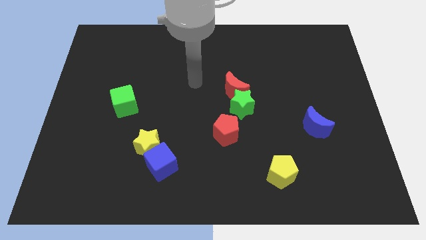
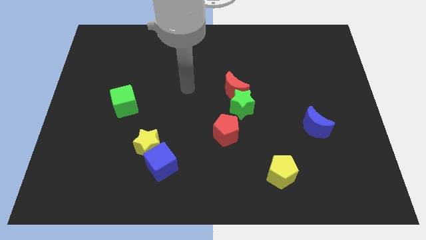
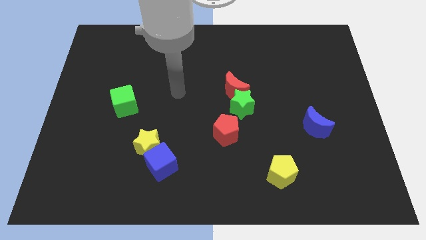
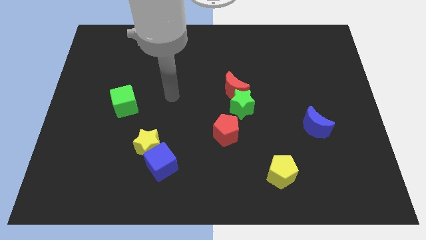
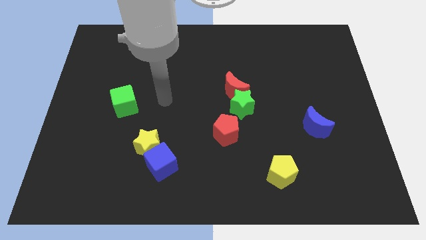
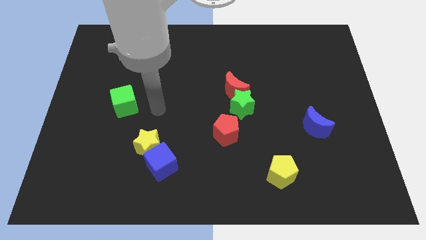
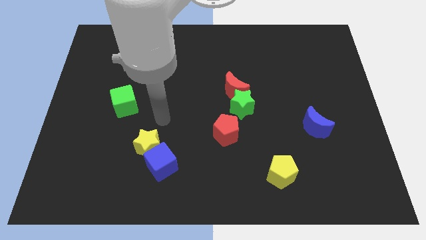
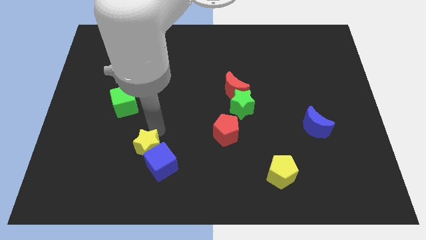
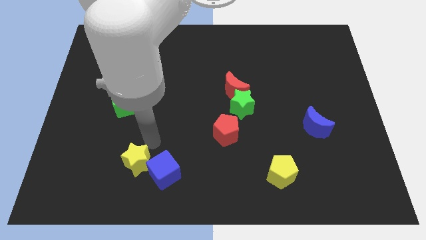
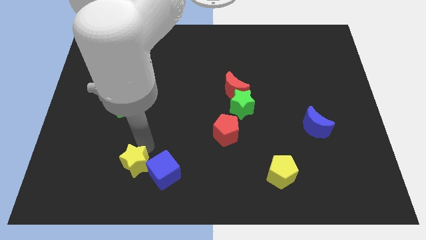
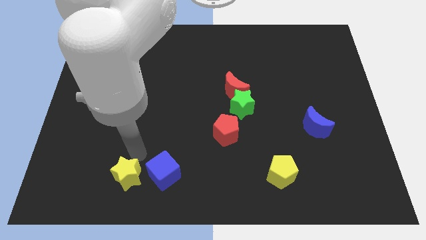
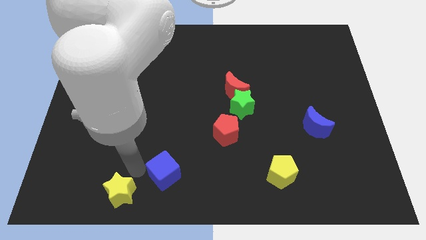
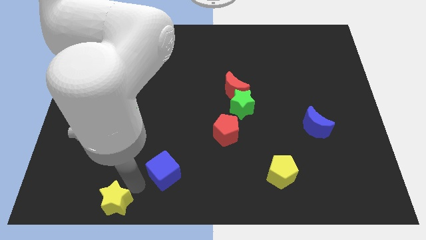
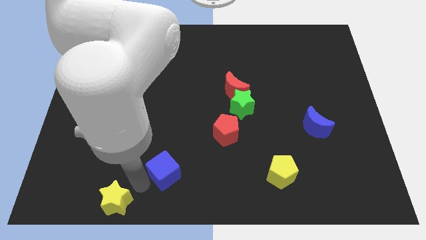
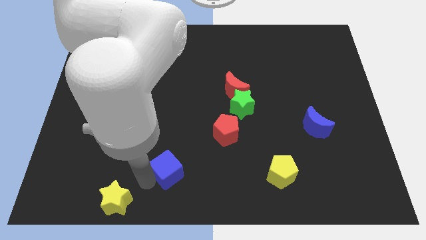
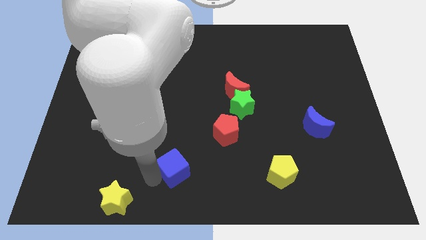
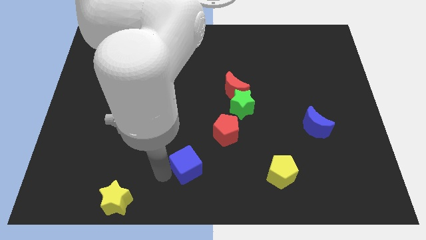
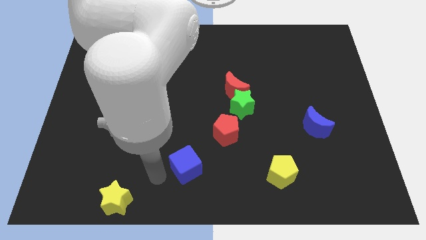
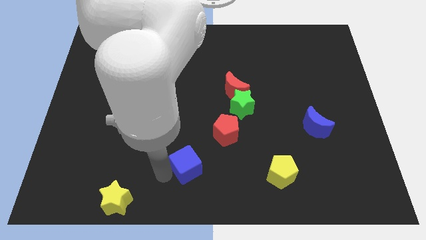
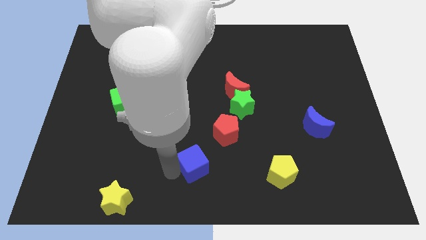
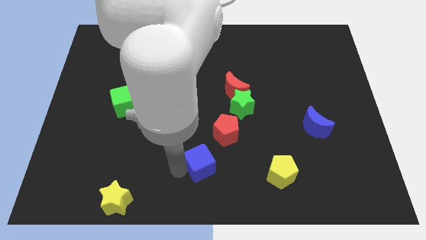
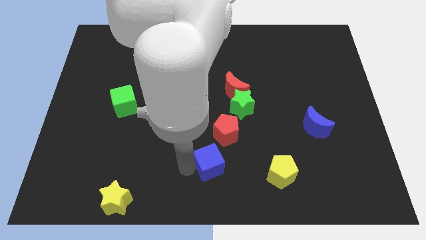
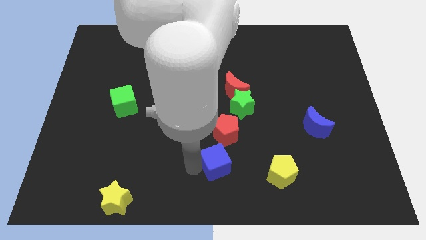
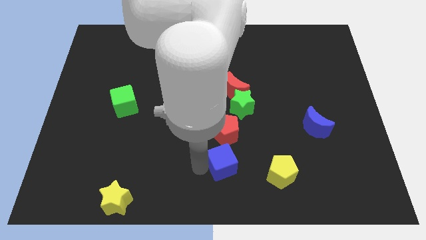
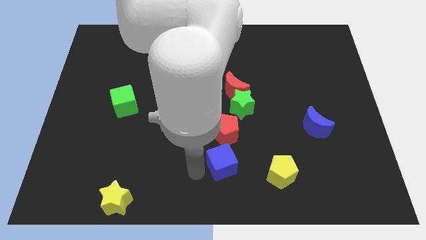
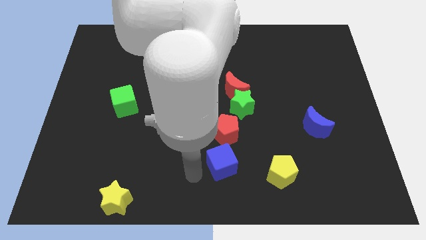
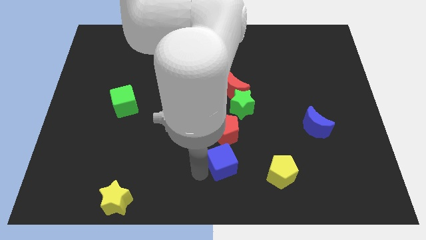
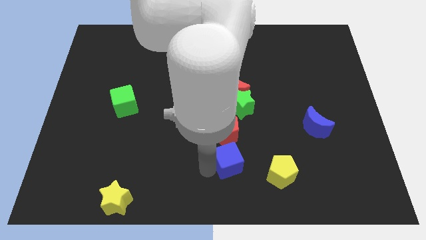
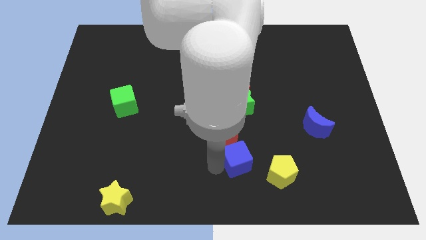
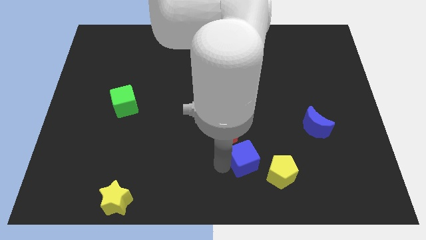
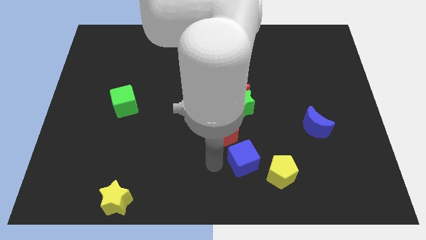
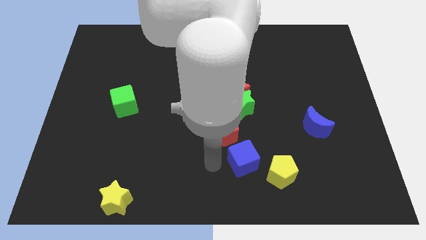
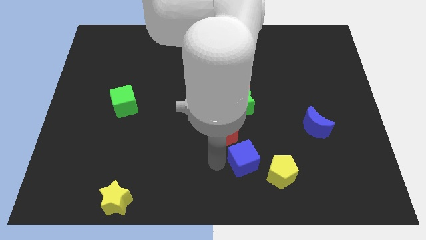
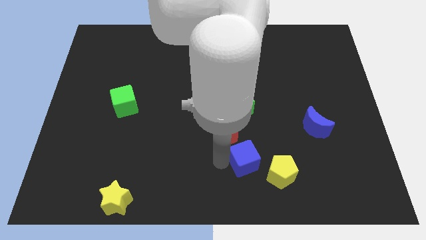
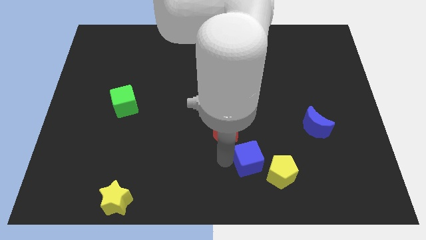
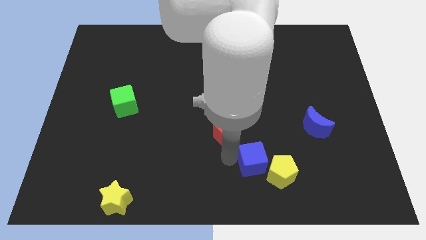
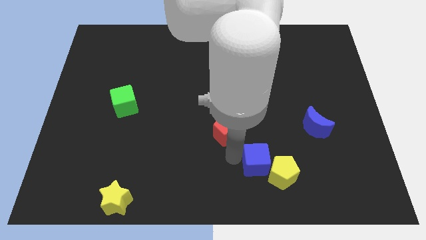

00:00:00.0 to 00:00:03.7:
slide the blue cube right

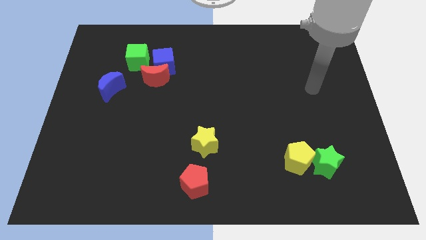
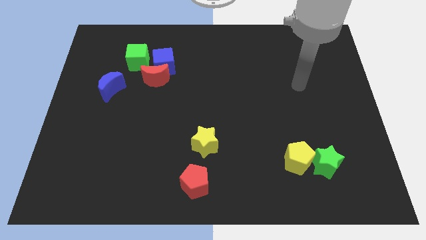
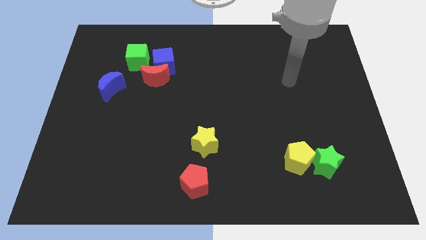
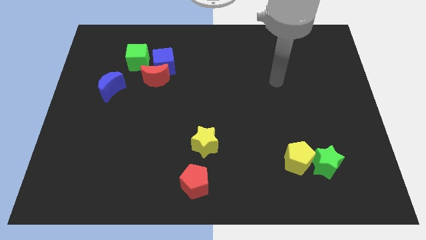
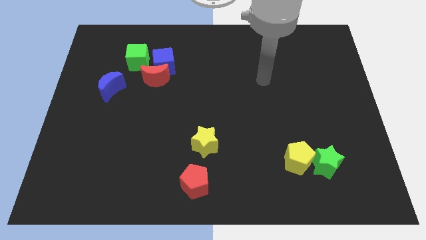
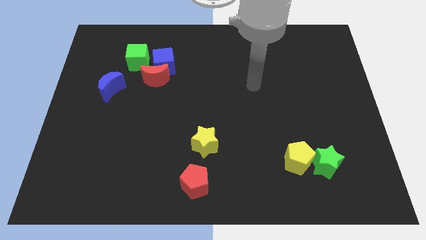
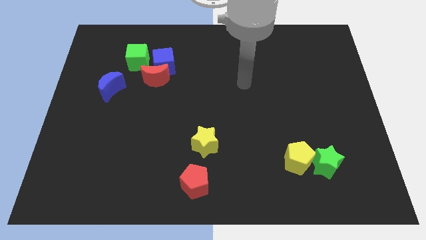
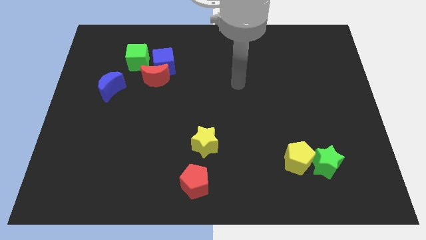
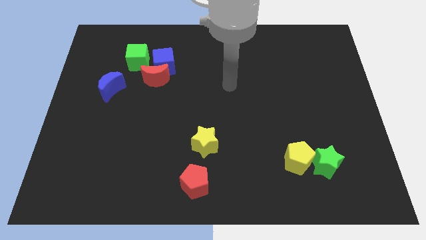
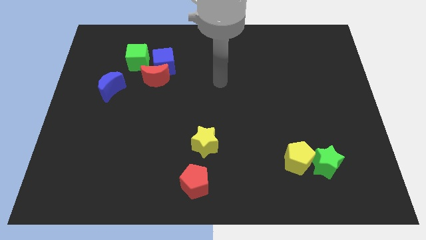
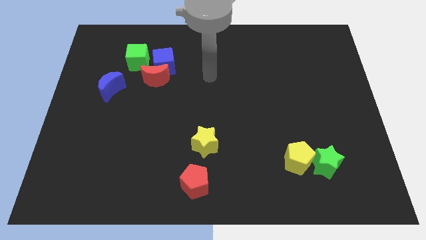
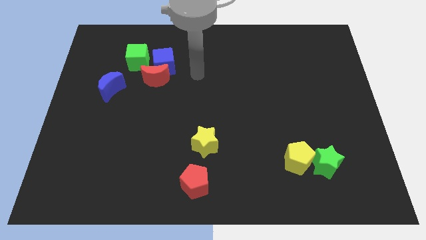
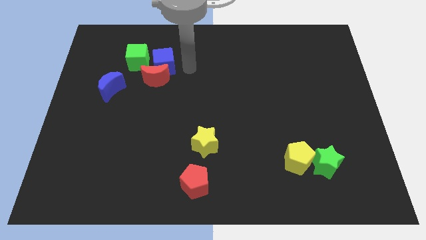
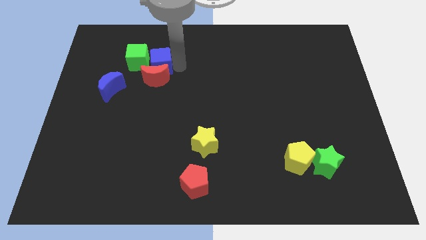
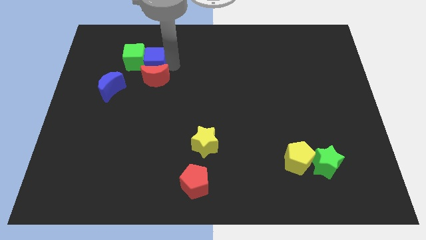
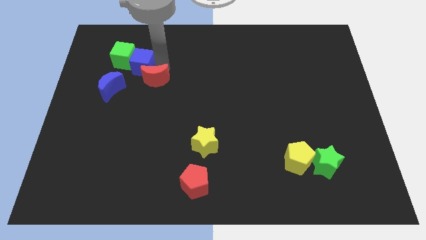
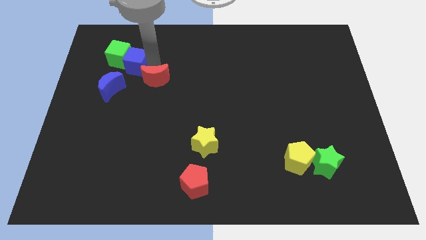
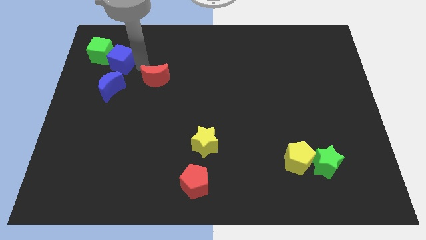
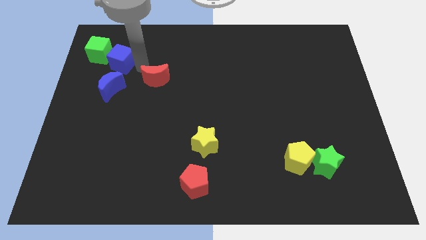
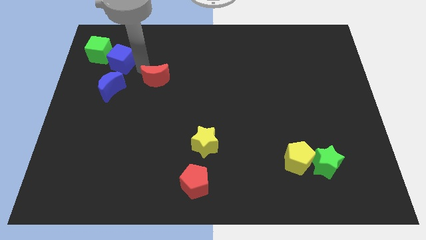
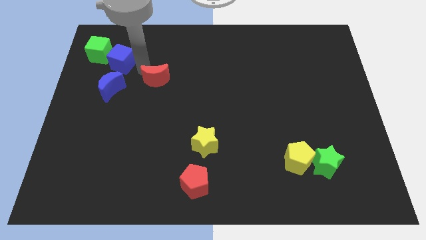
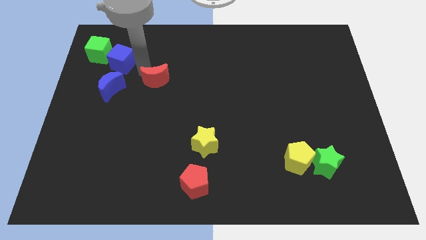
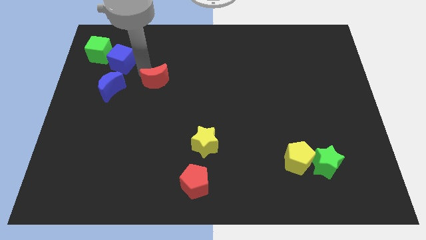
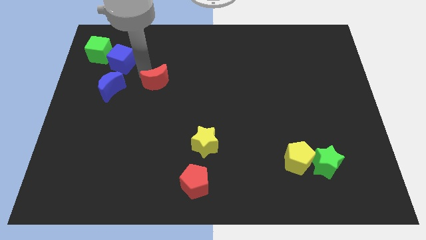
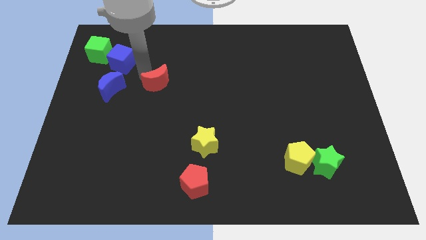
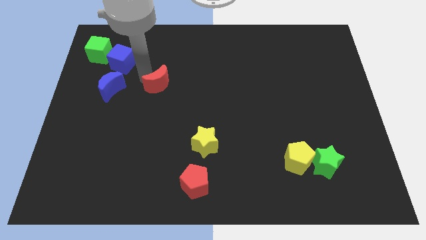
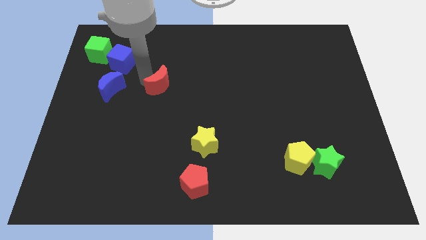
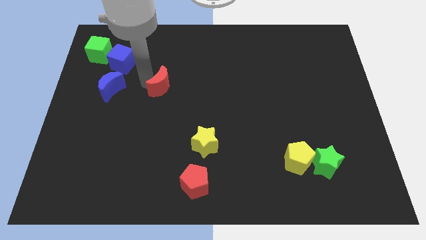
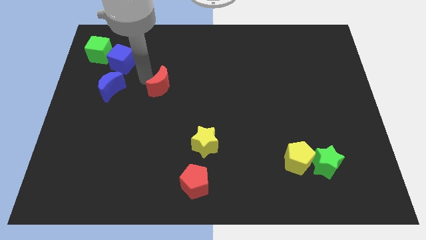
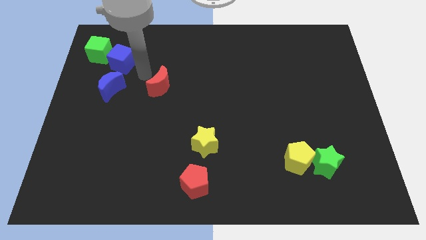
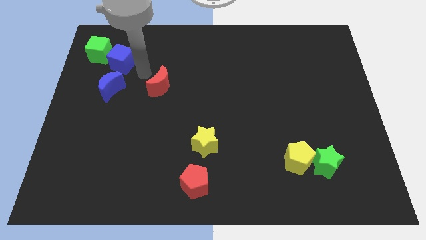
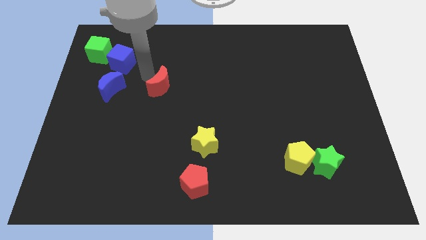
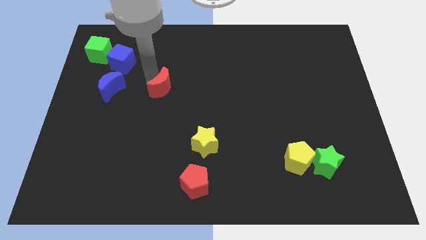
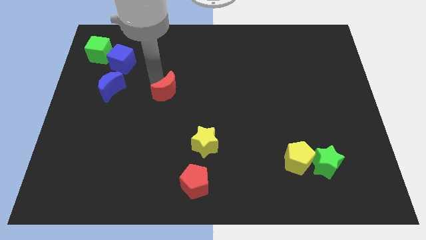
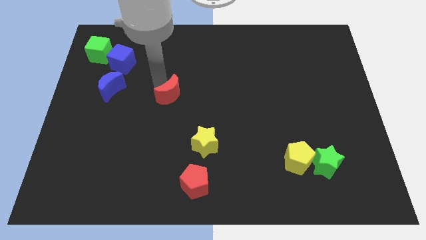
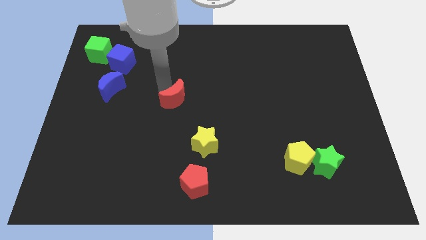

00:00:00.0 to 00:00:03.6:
push the red moon slightly downwards and right diagonally

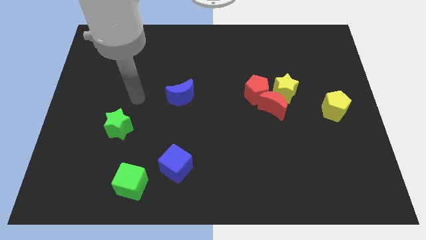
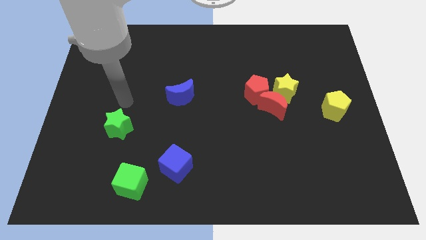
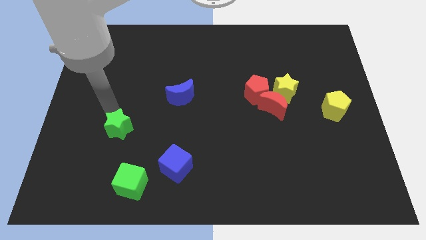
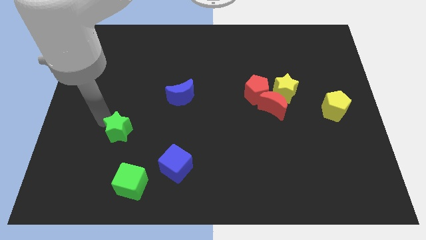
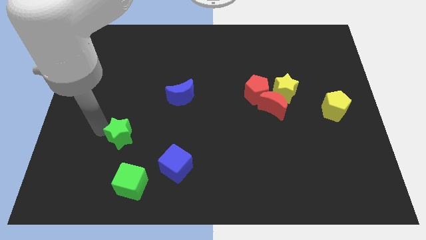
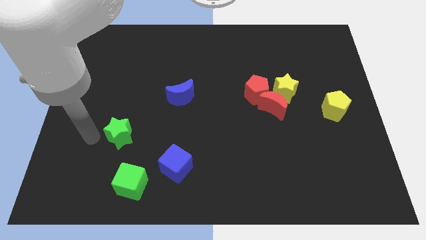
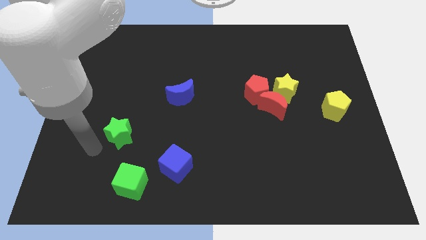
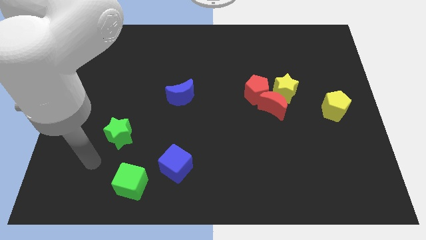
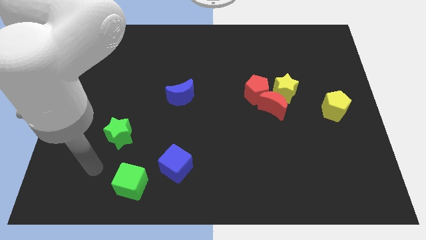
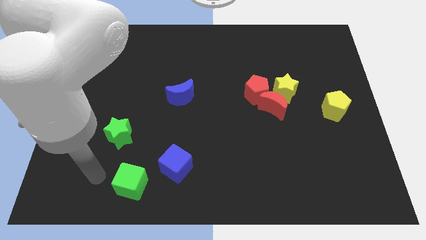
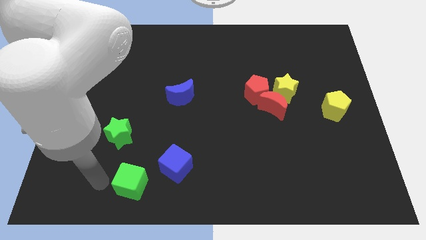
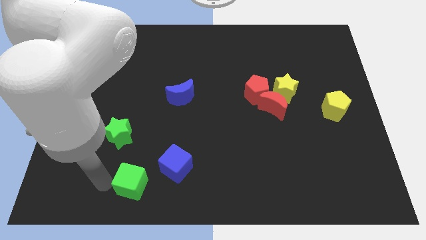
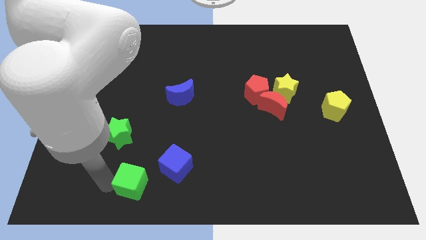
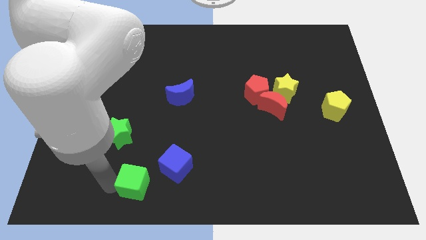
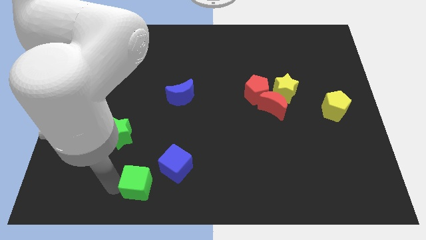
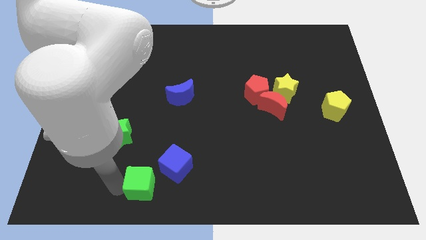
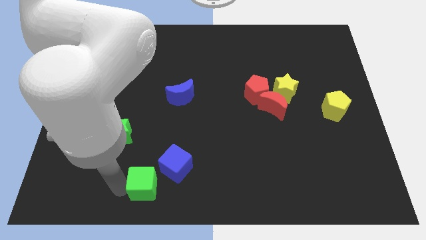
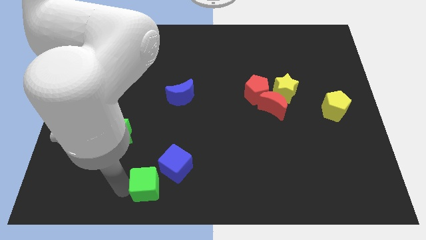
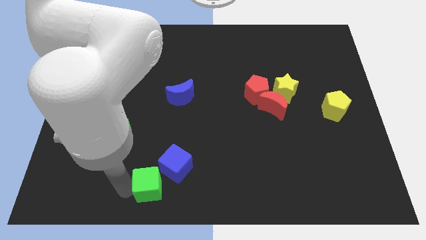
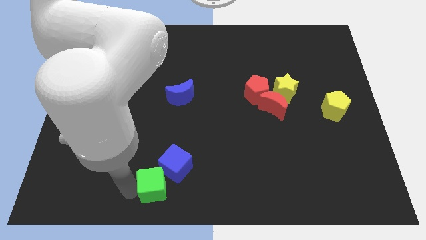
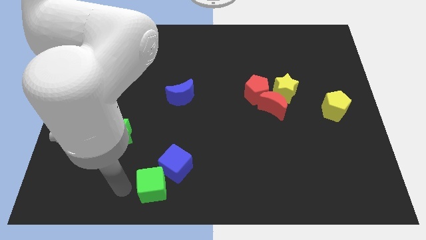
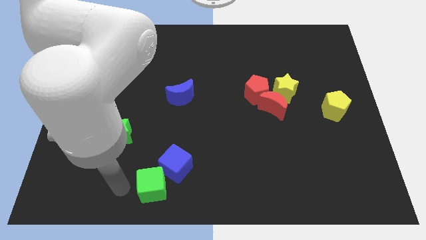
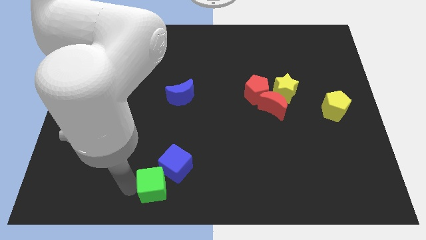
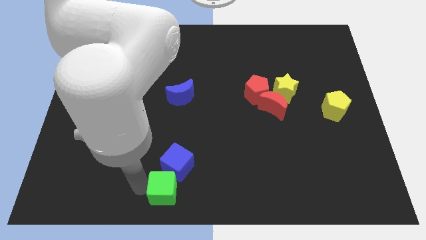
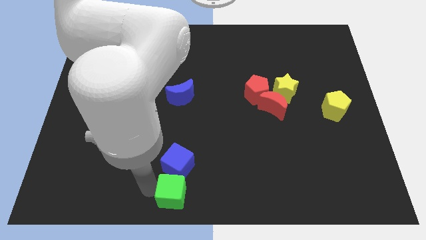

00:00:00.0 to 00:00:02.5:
push the green cube a bit right
